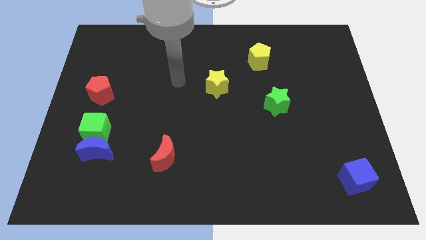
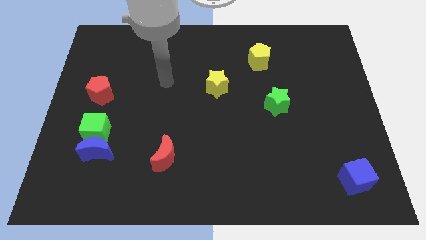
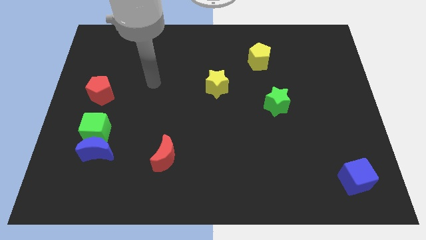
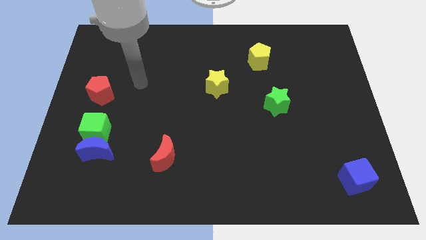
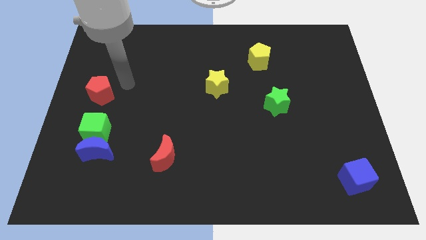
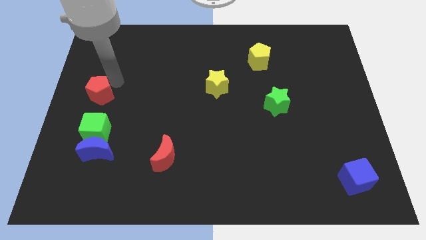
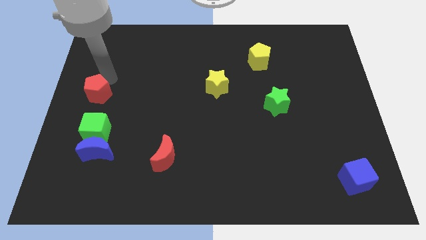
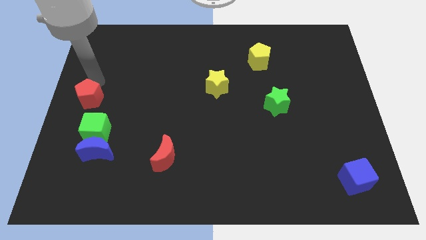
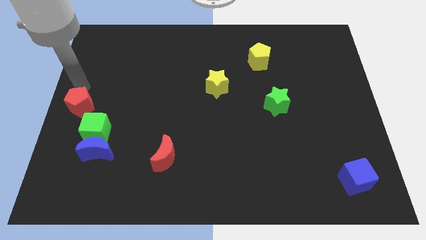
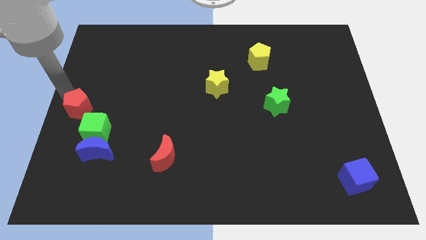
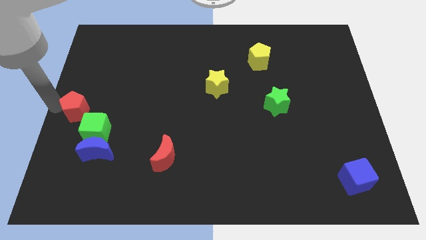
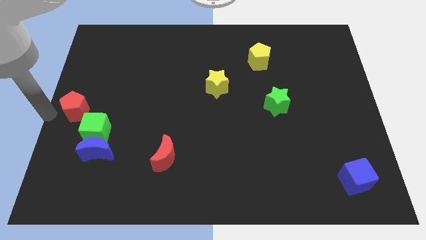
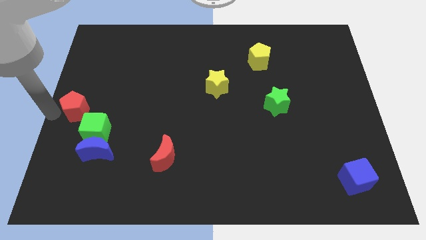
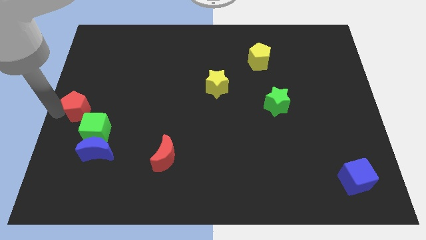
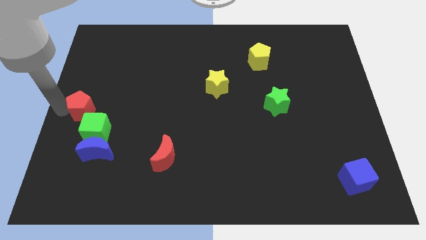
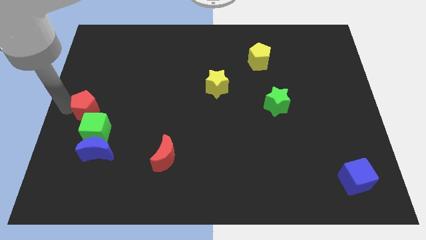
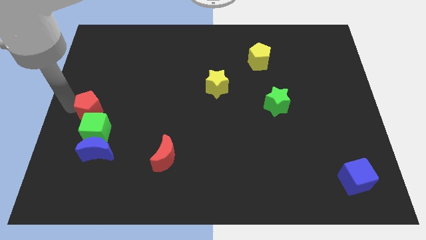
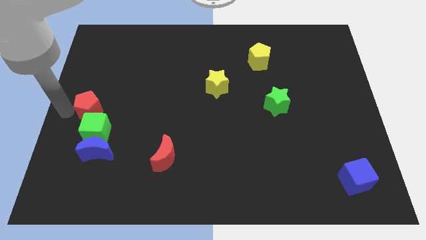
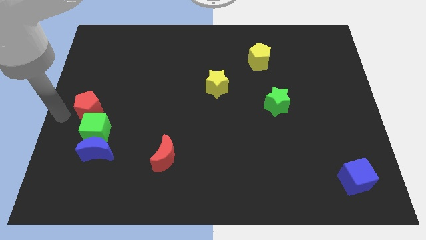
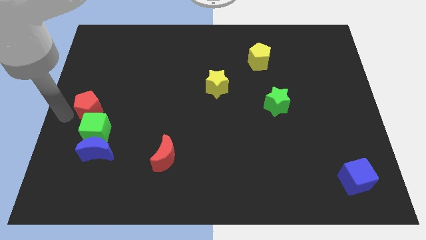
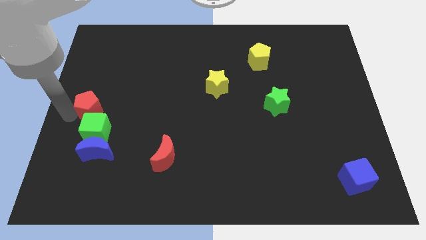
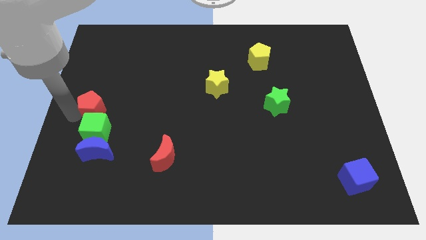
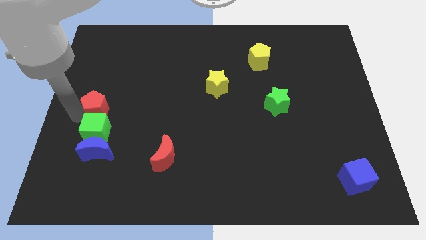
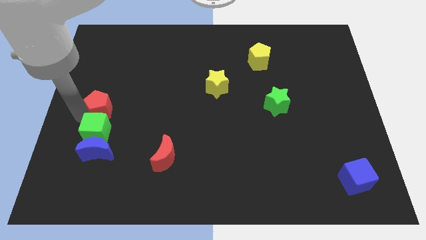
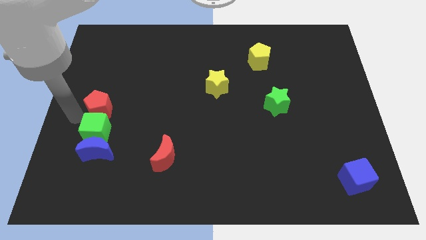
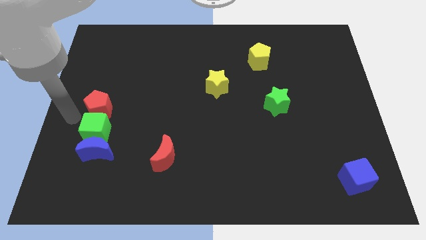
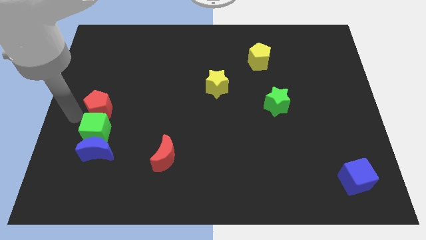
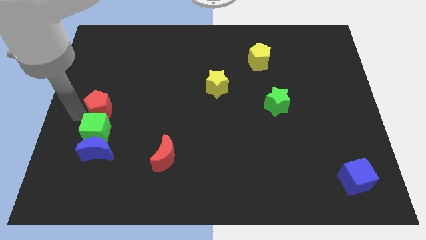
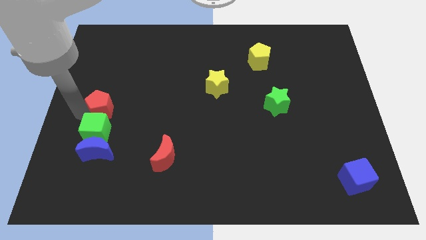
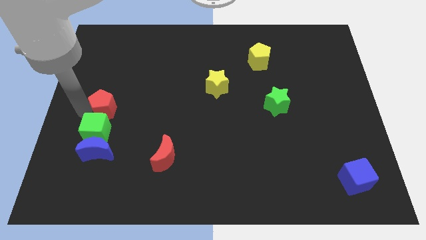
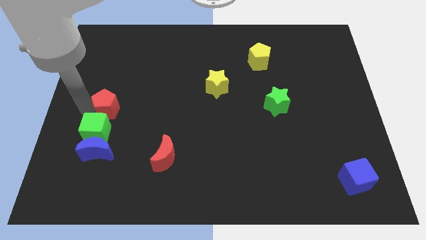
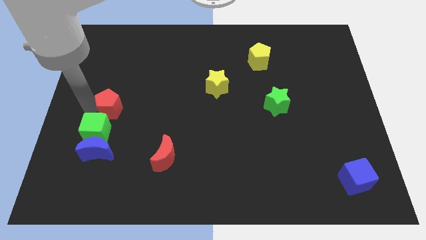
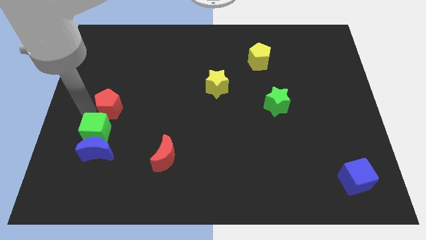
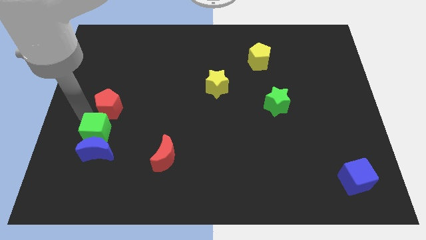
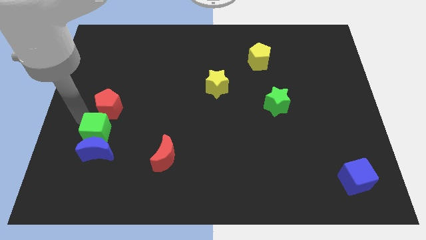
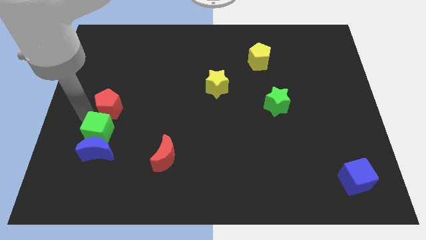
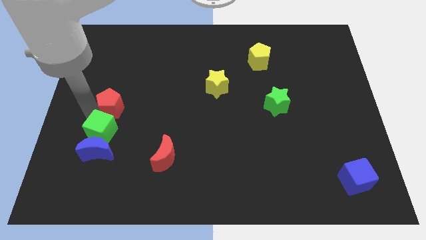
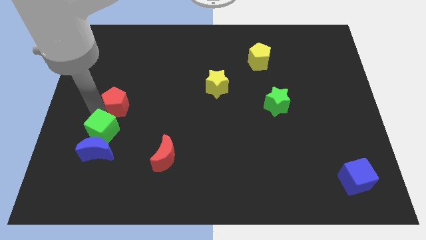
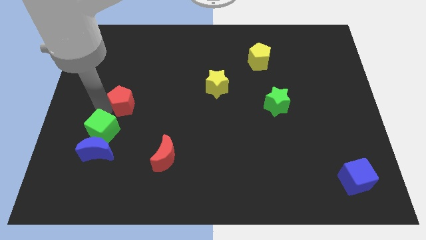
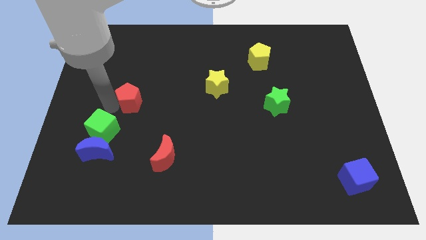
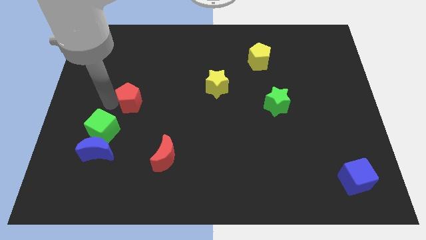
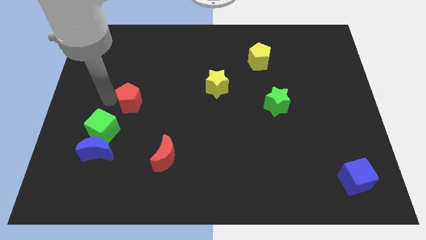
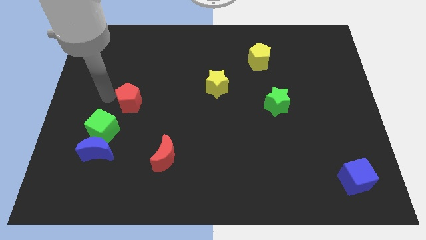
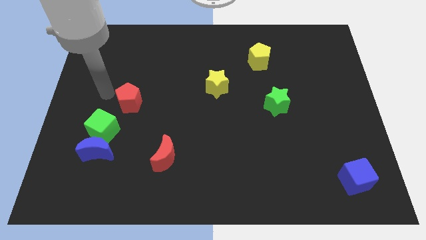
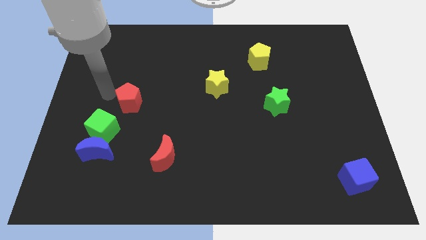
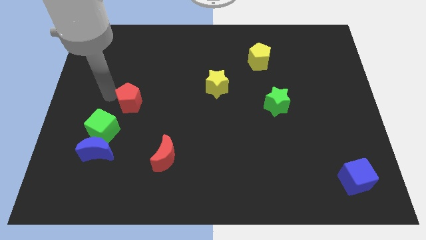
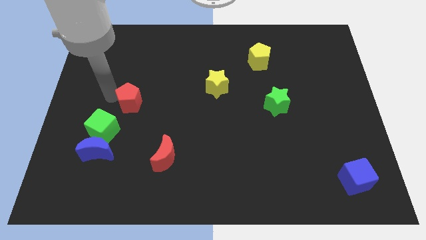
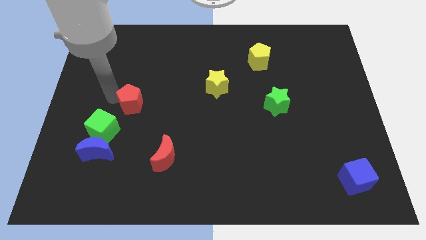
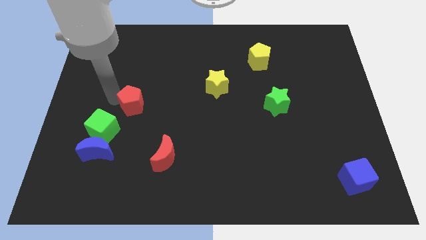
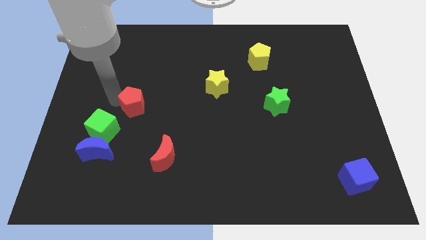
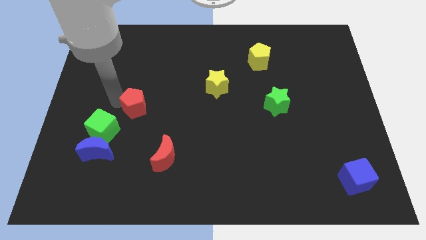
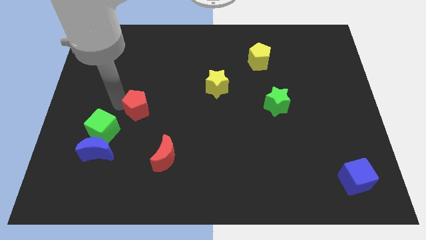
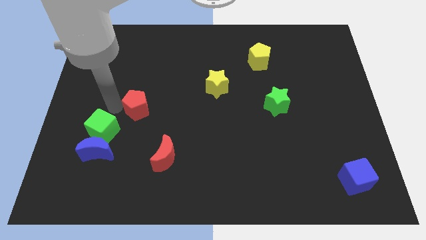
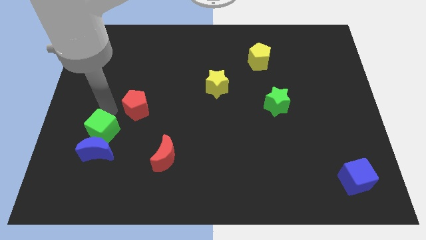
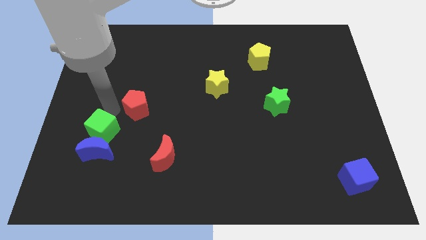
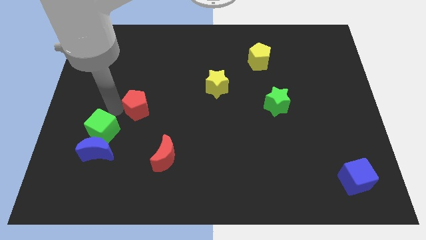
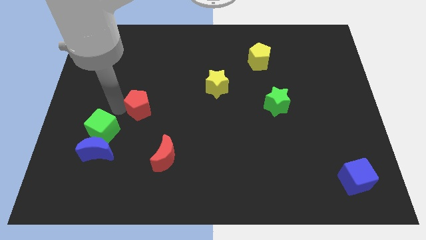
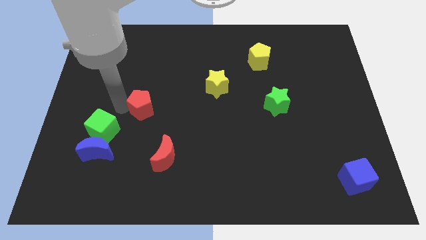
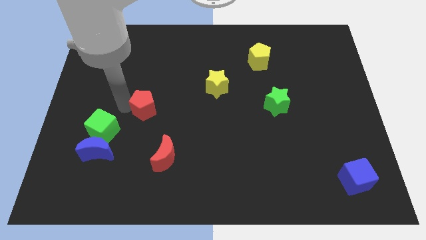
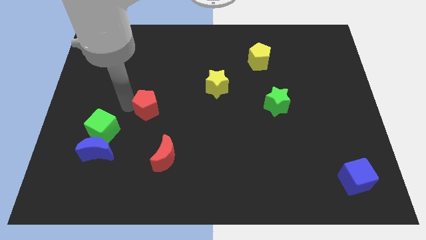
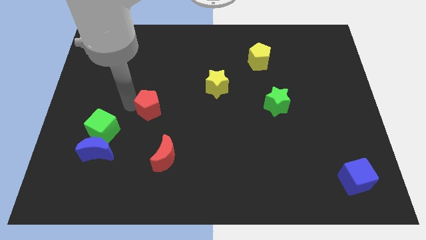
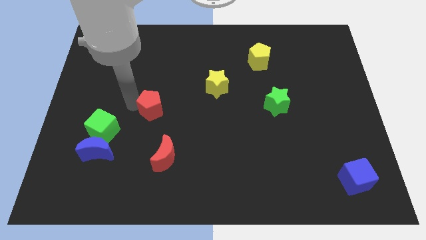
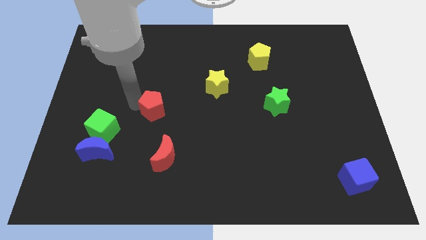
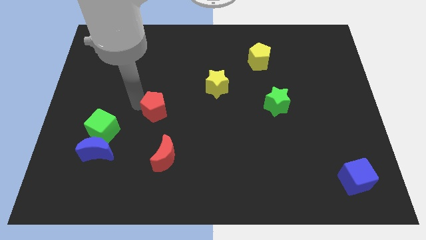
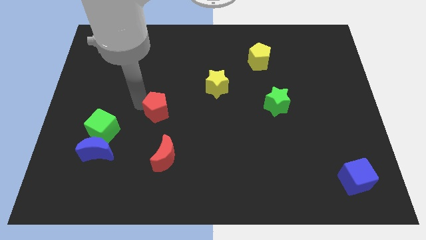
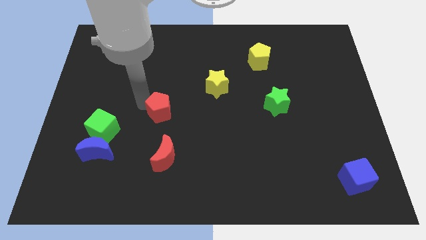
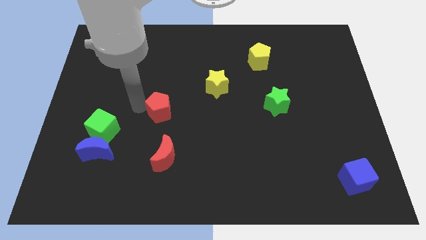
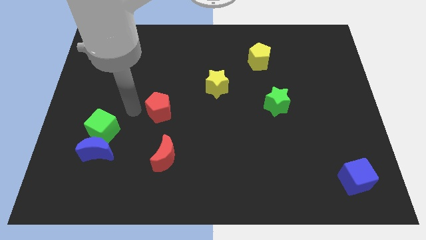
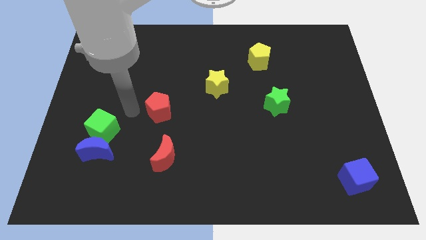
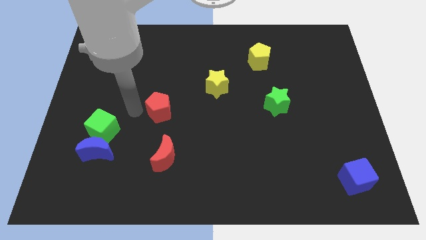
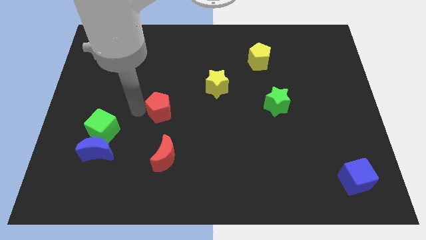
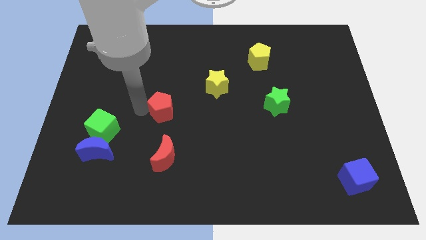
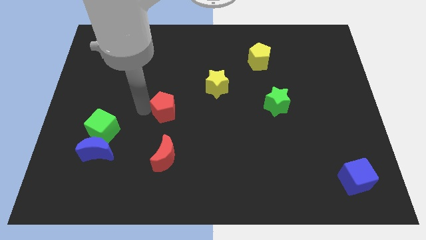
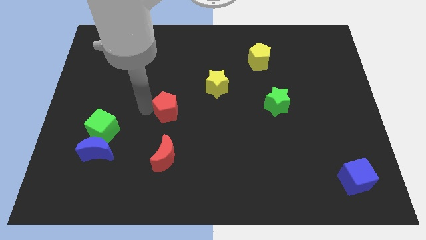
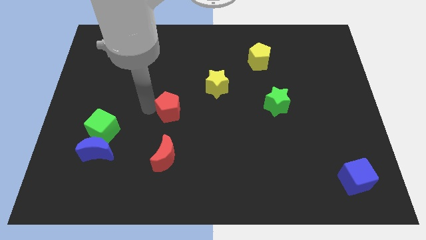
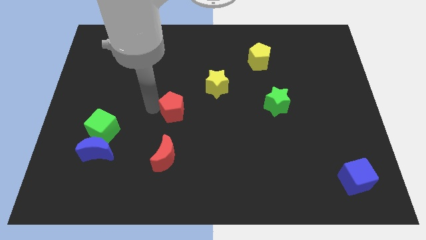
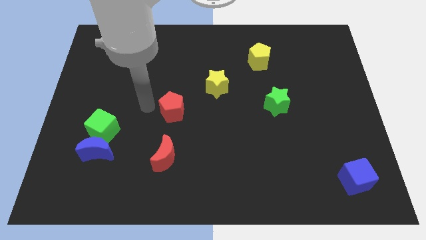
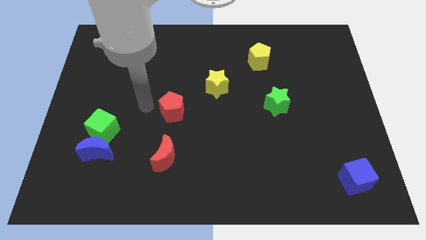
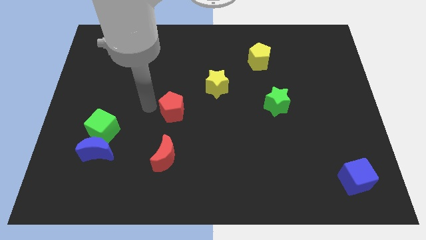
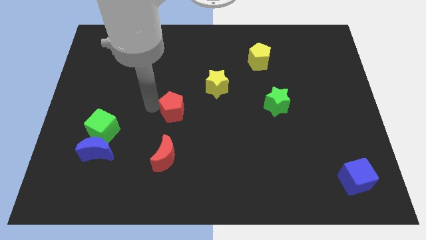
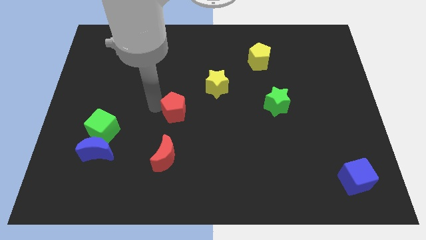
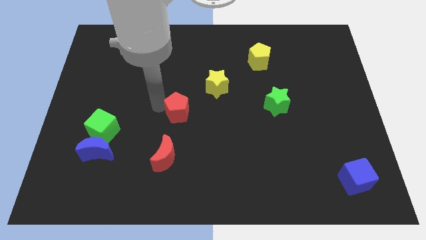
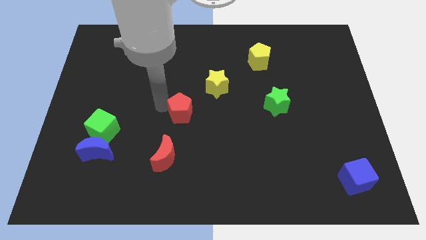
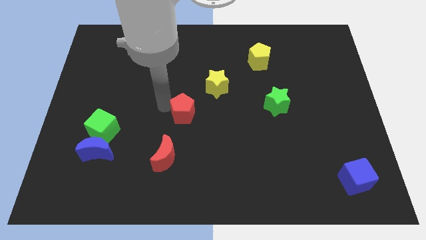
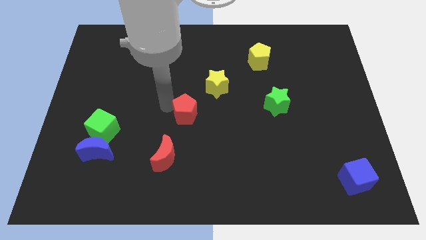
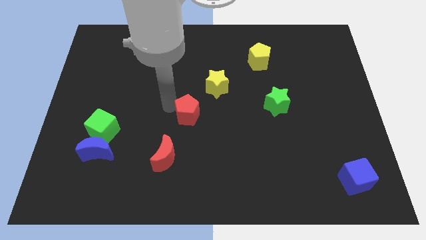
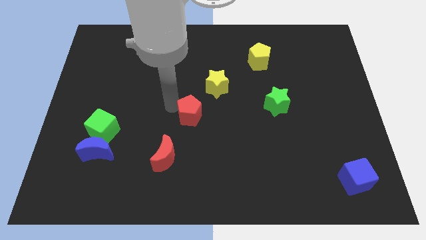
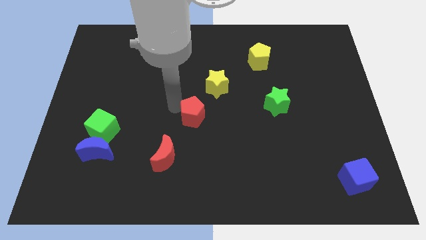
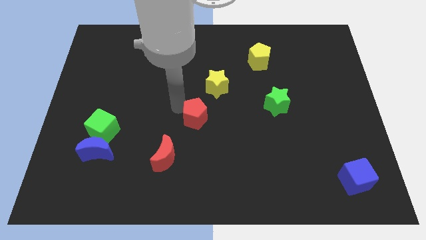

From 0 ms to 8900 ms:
move the red pentagon to the bottom side of the yellow star
